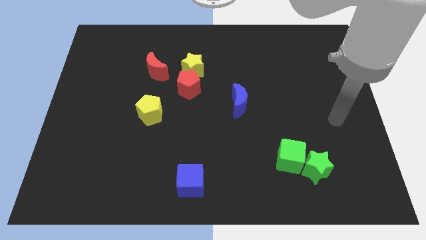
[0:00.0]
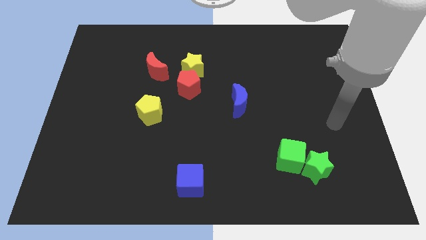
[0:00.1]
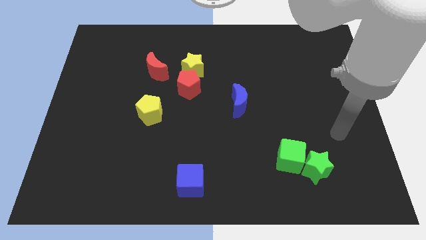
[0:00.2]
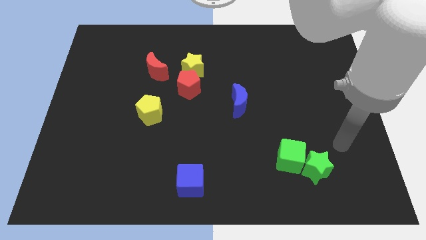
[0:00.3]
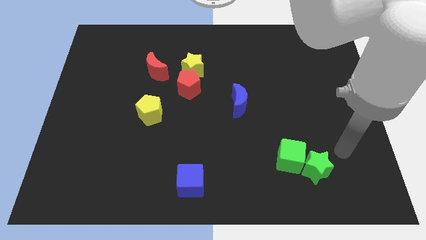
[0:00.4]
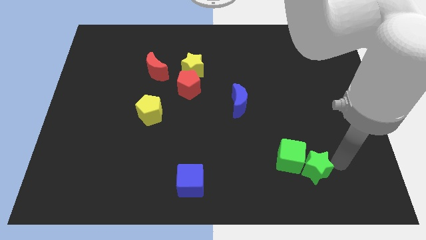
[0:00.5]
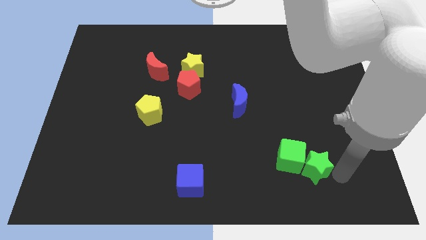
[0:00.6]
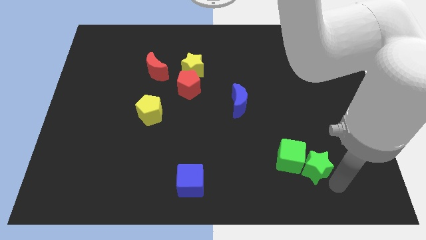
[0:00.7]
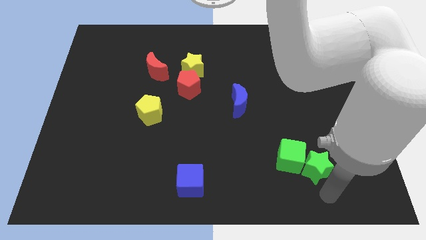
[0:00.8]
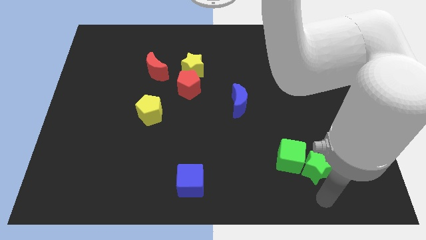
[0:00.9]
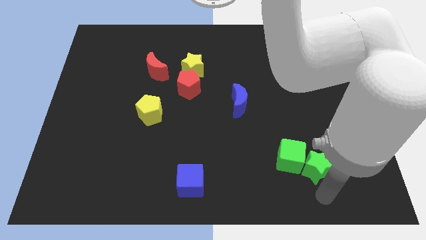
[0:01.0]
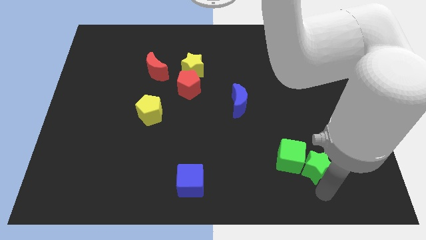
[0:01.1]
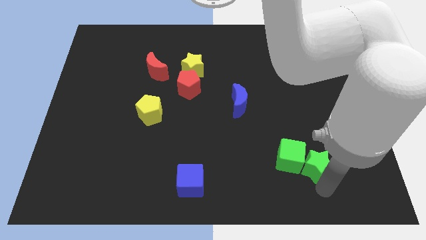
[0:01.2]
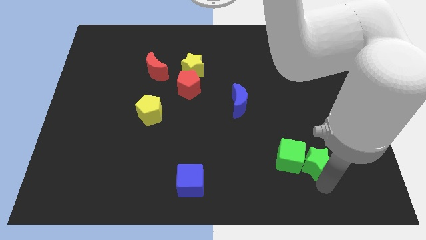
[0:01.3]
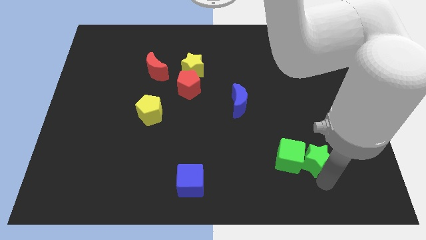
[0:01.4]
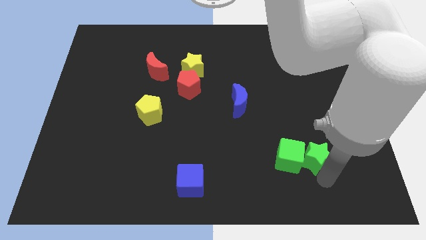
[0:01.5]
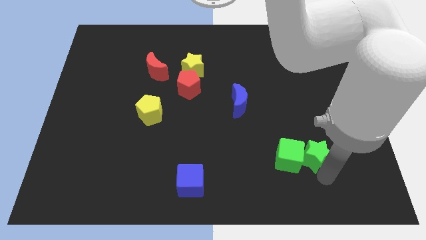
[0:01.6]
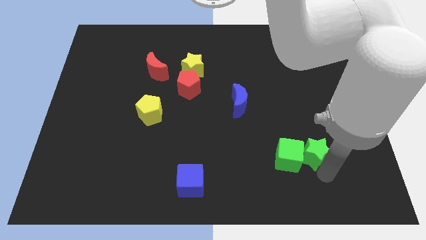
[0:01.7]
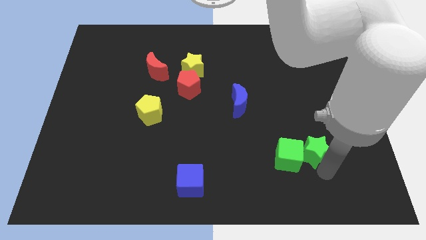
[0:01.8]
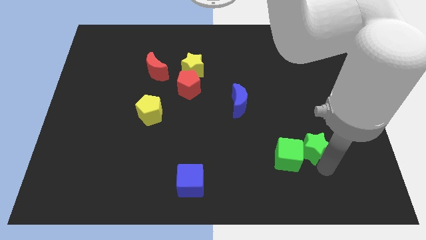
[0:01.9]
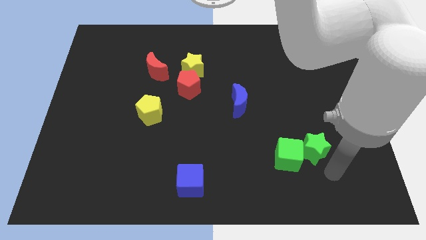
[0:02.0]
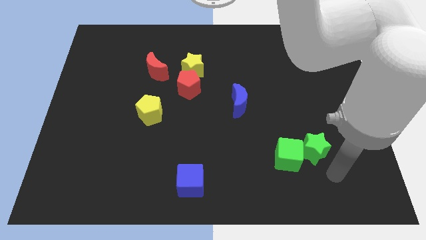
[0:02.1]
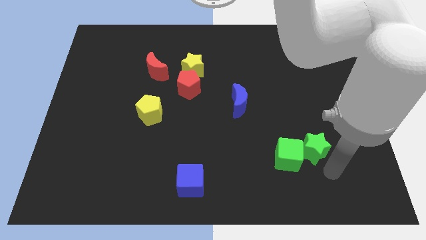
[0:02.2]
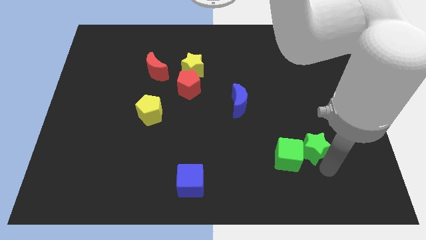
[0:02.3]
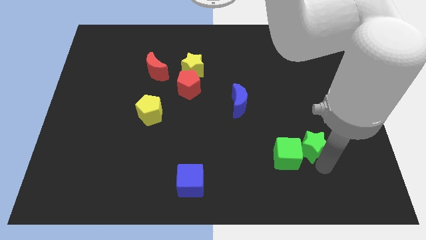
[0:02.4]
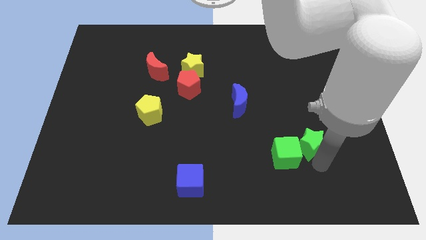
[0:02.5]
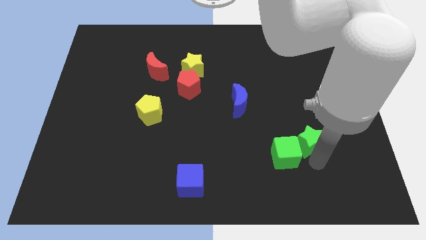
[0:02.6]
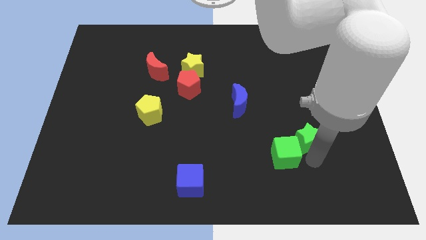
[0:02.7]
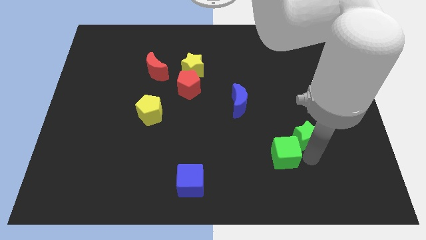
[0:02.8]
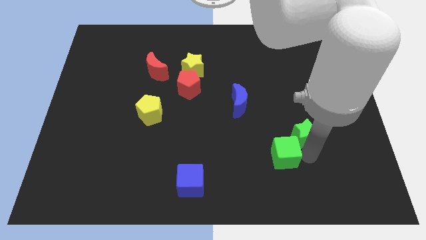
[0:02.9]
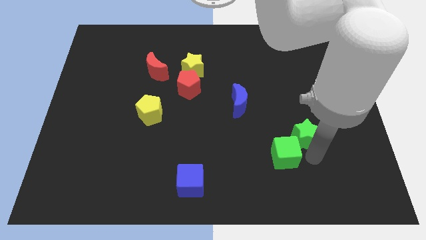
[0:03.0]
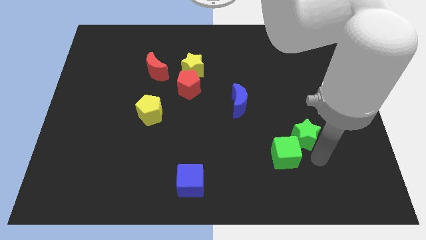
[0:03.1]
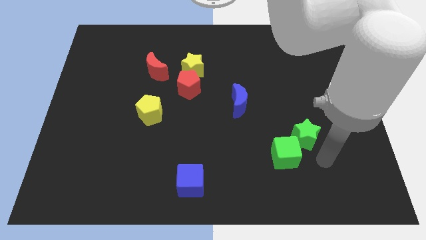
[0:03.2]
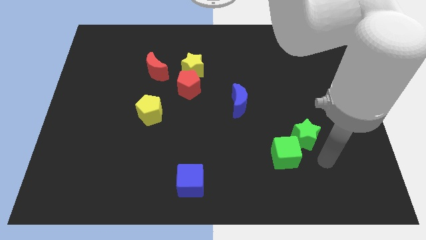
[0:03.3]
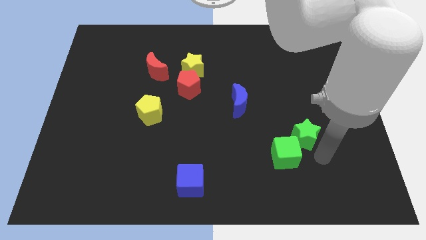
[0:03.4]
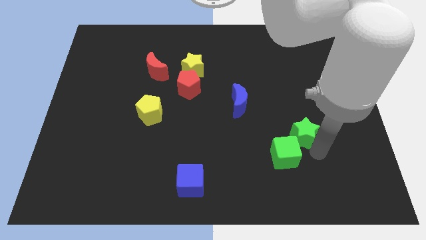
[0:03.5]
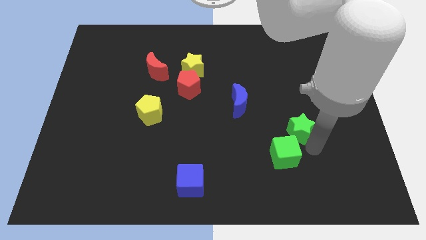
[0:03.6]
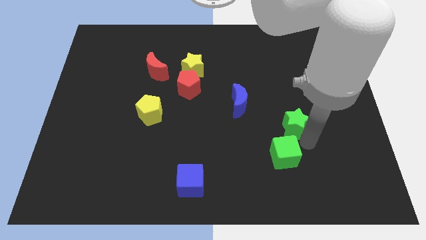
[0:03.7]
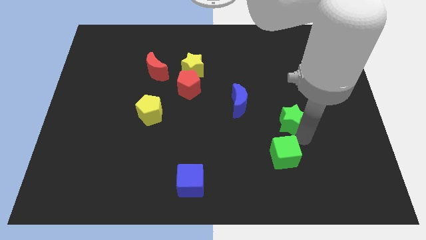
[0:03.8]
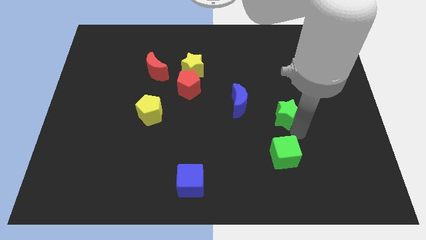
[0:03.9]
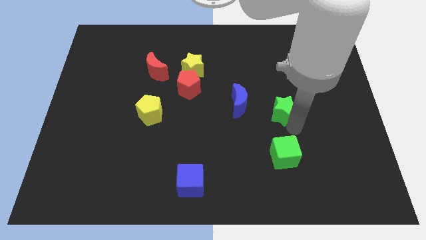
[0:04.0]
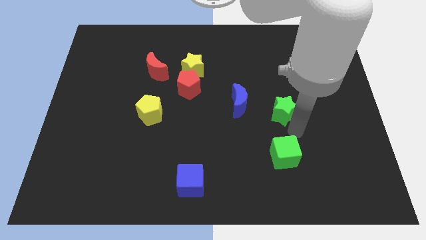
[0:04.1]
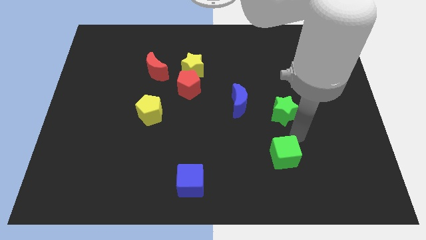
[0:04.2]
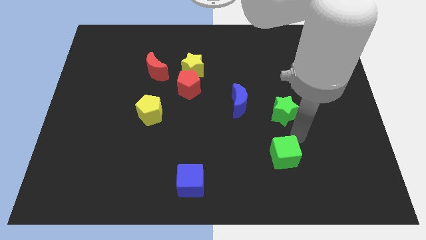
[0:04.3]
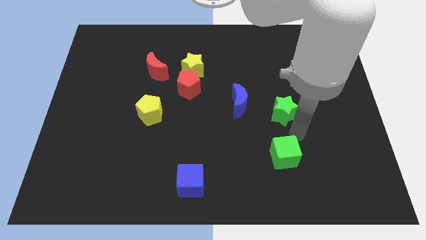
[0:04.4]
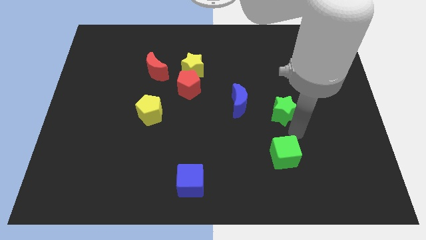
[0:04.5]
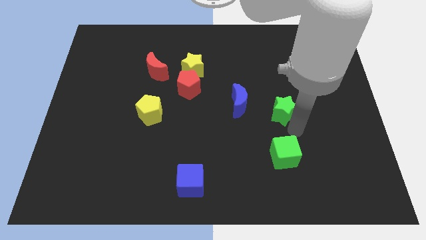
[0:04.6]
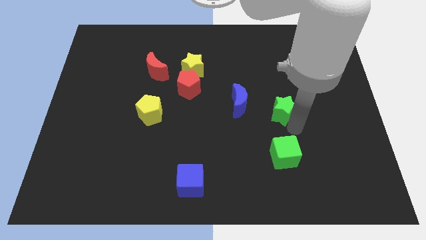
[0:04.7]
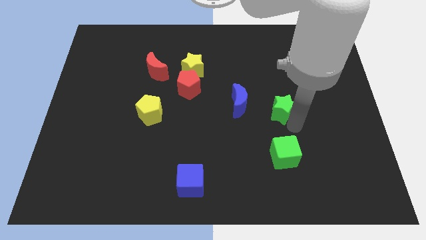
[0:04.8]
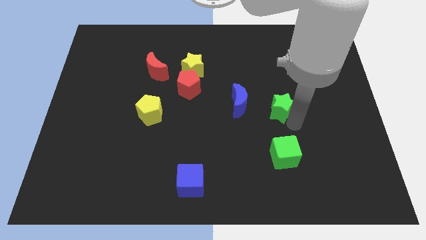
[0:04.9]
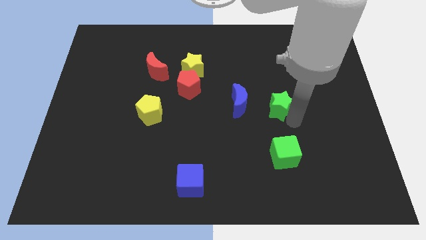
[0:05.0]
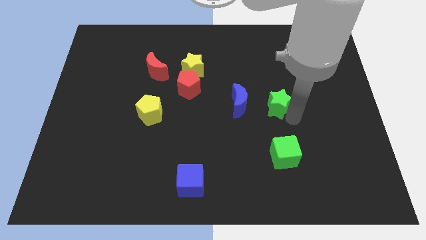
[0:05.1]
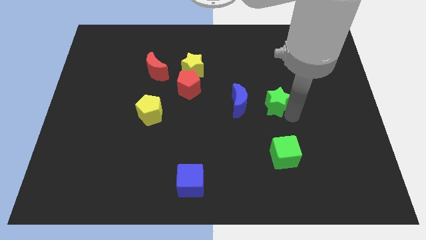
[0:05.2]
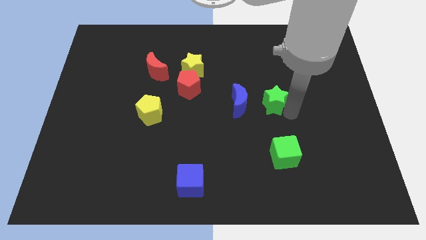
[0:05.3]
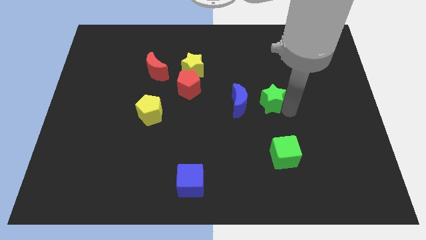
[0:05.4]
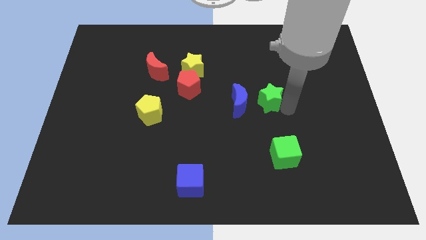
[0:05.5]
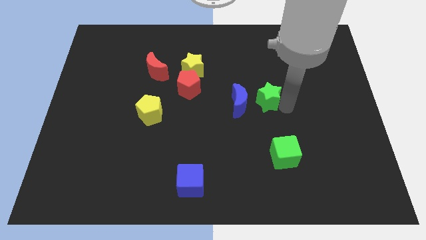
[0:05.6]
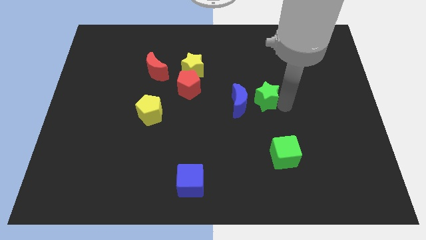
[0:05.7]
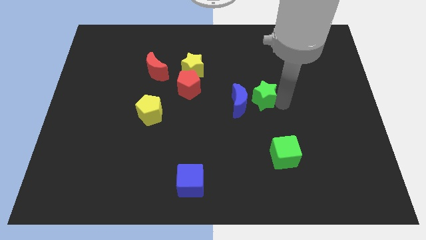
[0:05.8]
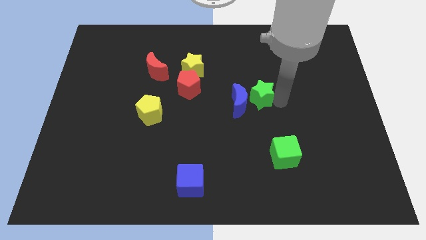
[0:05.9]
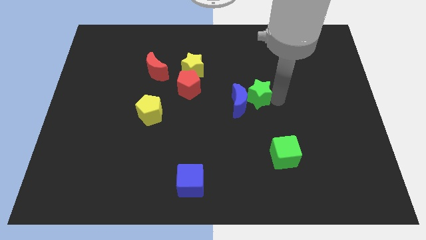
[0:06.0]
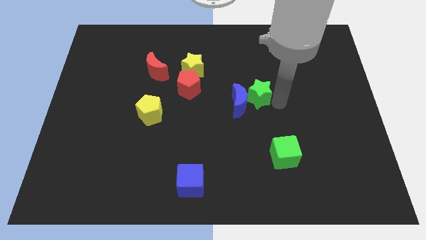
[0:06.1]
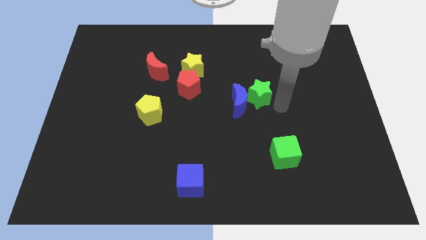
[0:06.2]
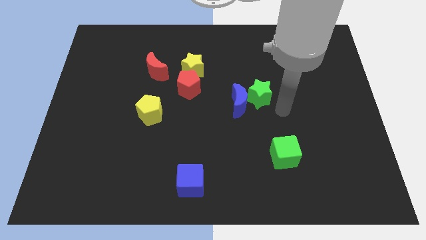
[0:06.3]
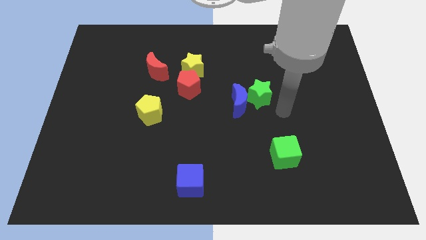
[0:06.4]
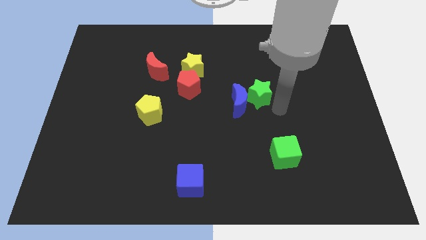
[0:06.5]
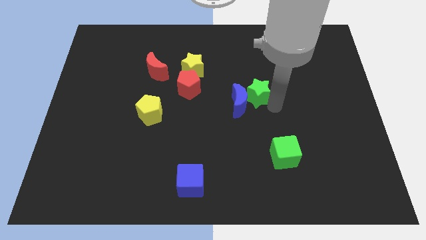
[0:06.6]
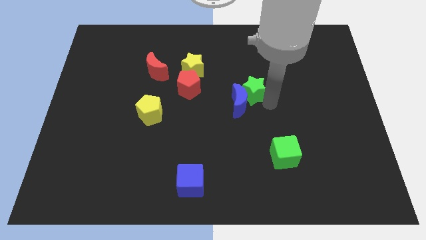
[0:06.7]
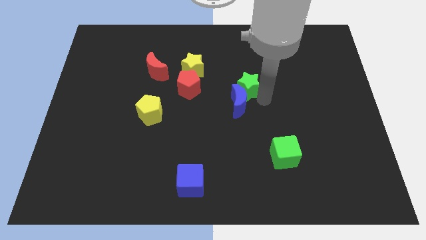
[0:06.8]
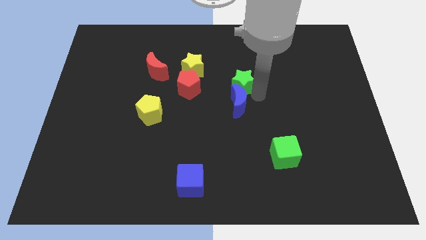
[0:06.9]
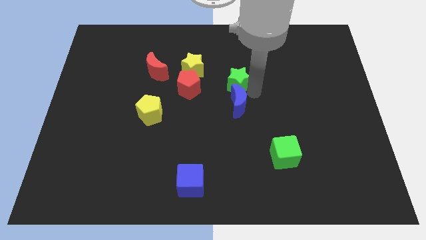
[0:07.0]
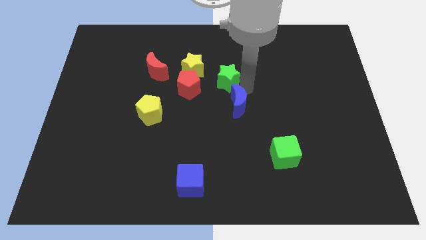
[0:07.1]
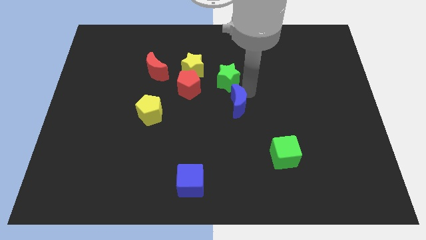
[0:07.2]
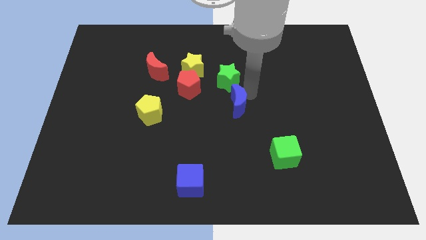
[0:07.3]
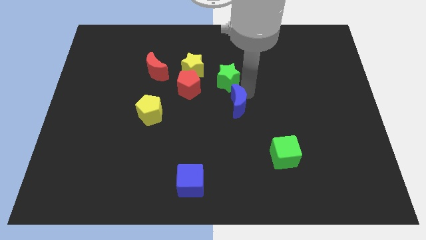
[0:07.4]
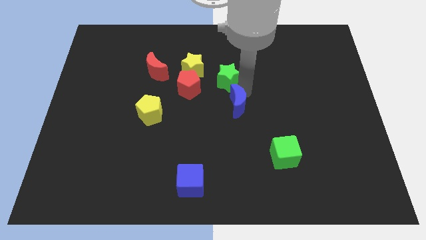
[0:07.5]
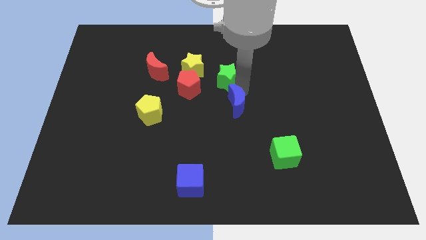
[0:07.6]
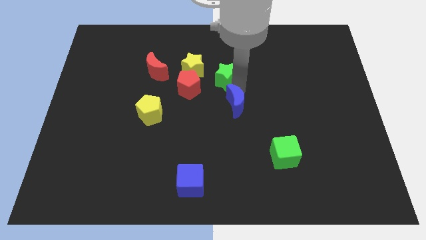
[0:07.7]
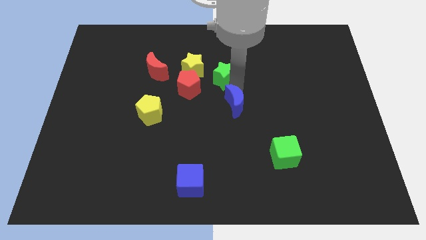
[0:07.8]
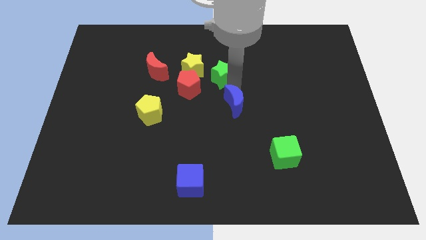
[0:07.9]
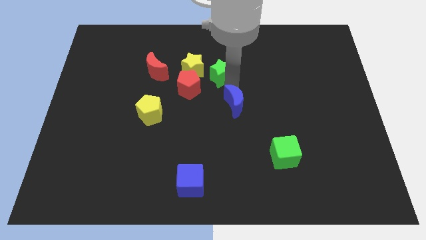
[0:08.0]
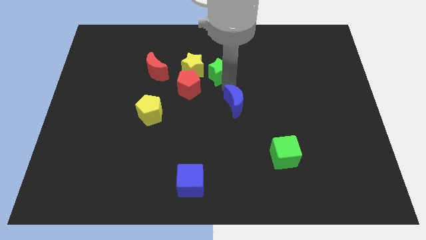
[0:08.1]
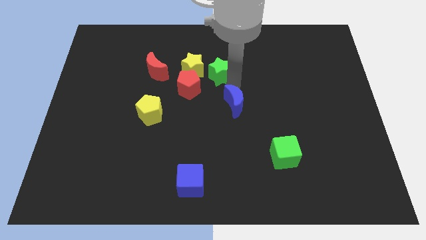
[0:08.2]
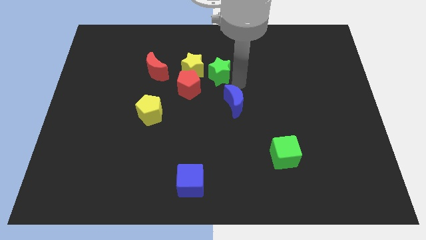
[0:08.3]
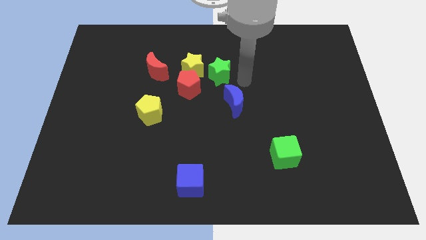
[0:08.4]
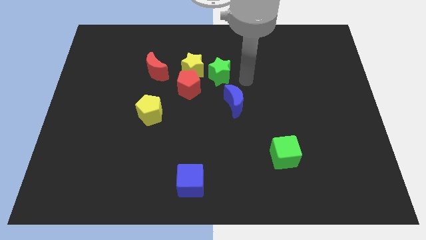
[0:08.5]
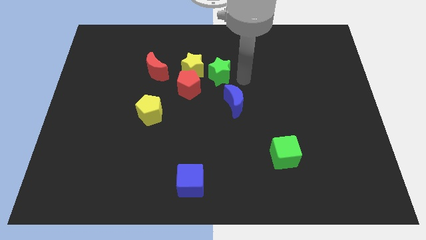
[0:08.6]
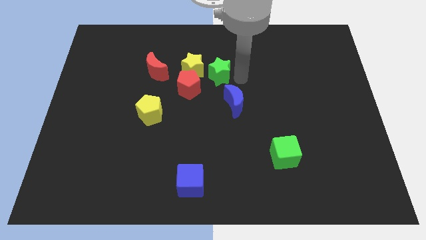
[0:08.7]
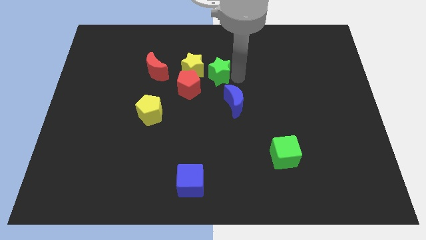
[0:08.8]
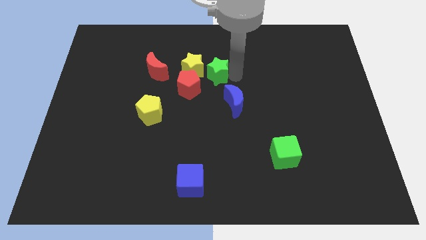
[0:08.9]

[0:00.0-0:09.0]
slide the green star to the right side of the red moon
